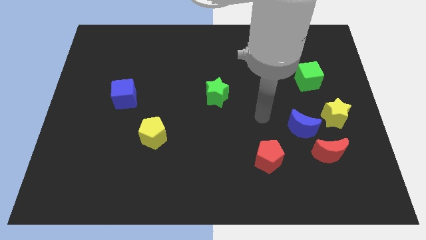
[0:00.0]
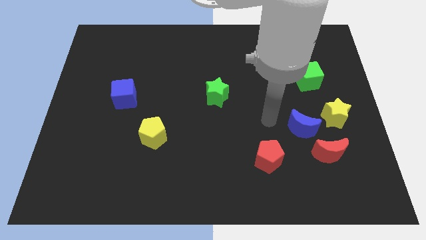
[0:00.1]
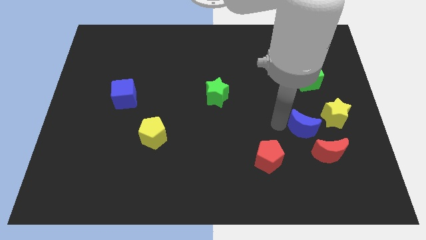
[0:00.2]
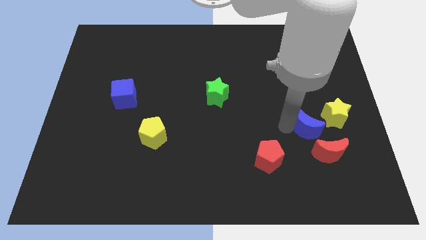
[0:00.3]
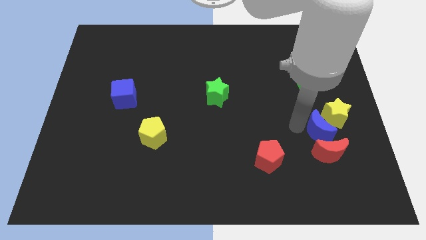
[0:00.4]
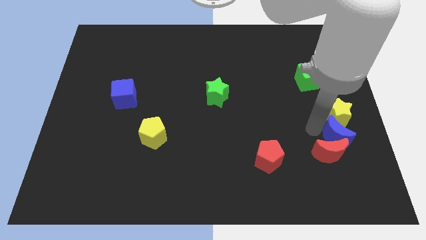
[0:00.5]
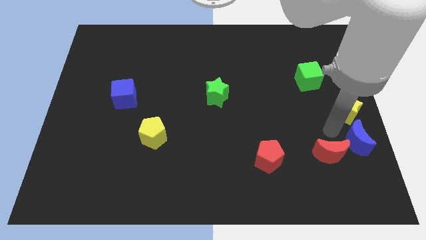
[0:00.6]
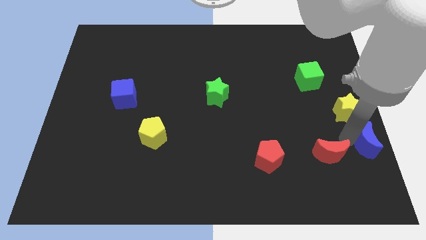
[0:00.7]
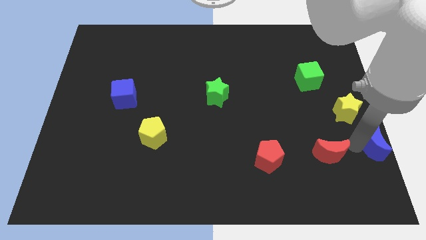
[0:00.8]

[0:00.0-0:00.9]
separate the red moon from the blue moon

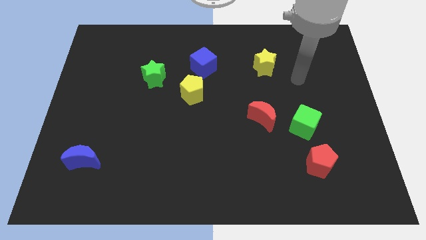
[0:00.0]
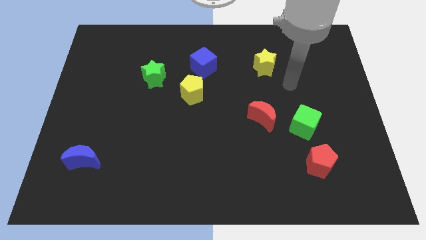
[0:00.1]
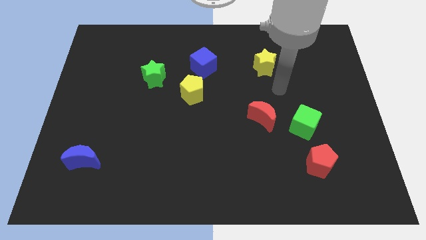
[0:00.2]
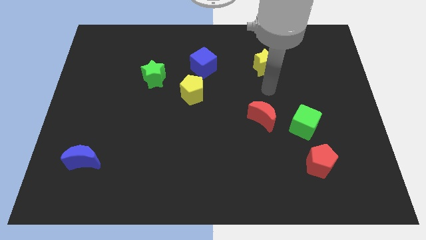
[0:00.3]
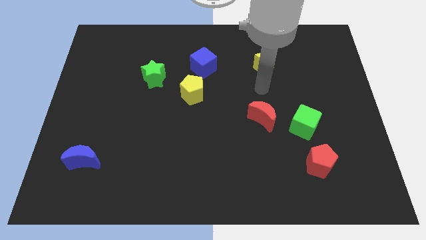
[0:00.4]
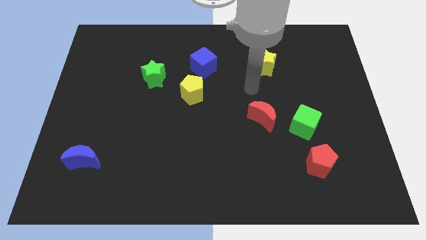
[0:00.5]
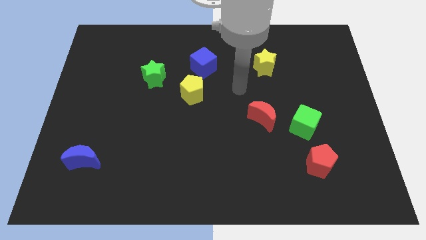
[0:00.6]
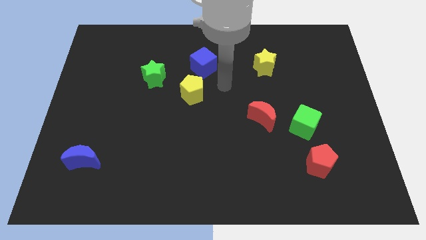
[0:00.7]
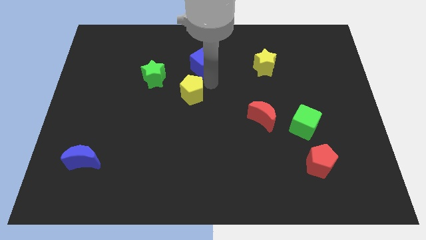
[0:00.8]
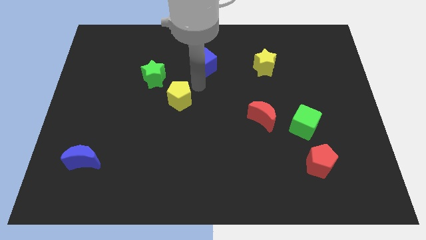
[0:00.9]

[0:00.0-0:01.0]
move the blue cube away from the yellow pentagon

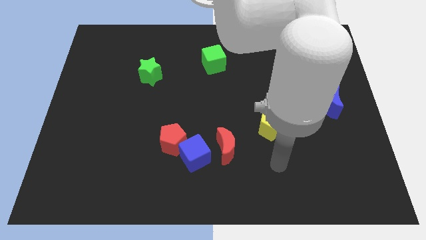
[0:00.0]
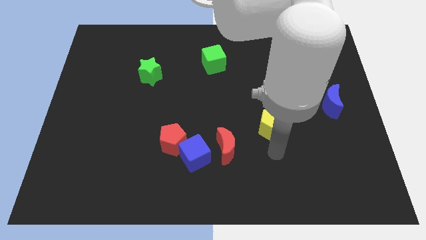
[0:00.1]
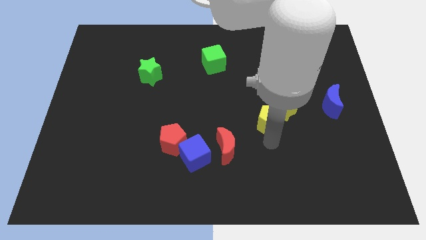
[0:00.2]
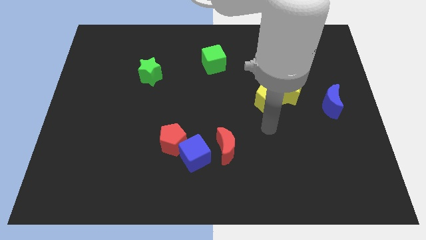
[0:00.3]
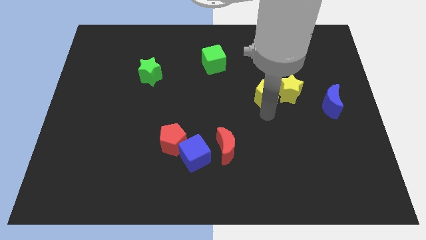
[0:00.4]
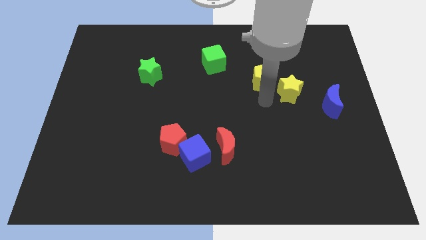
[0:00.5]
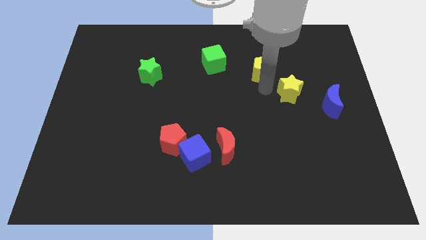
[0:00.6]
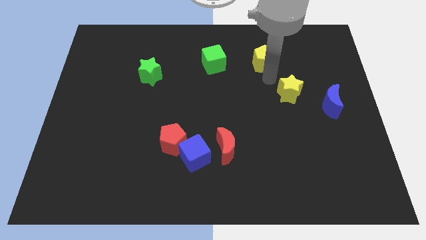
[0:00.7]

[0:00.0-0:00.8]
separate the yellow star from the yellow pentagon

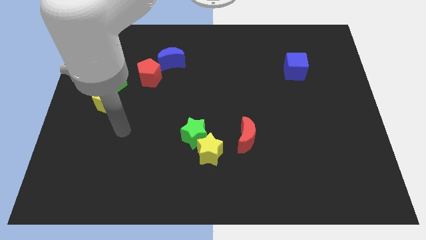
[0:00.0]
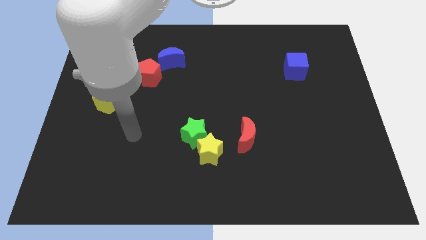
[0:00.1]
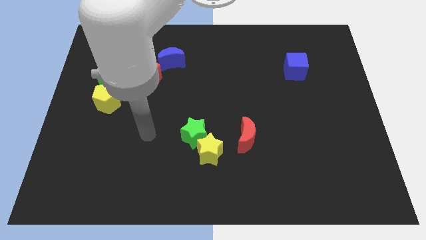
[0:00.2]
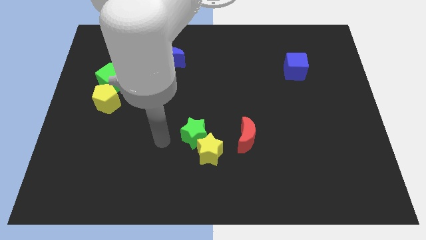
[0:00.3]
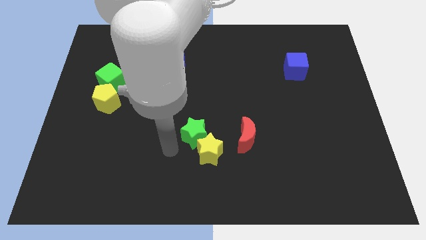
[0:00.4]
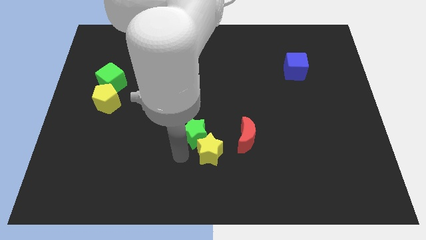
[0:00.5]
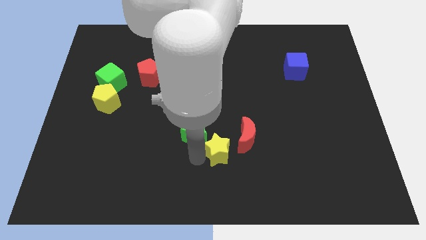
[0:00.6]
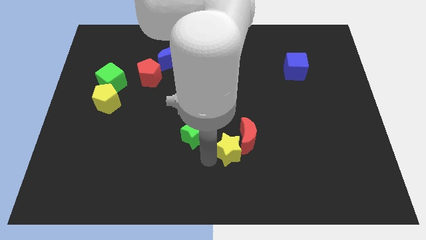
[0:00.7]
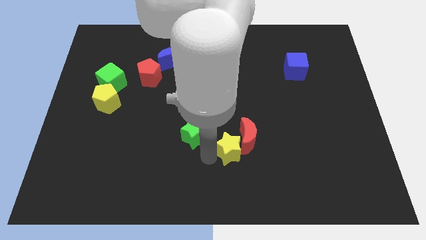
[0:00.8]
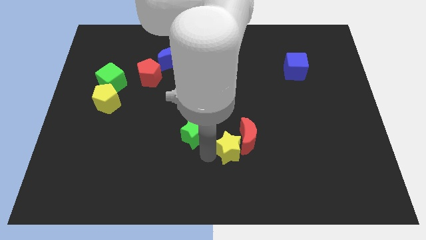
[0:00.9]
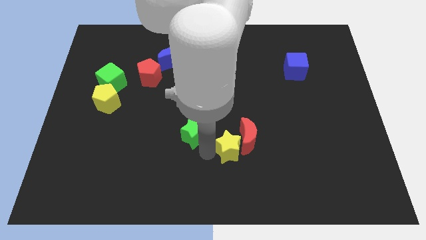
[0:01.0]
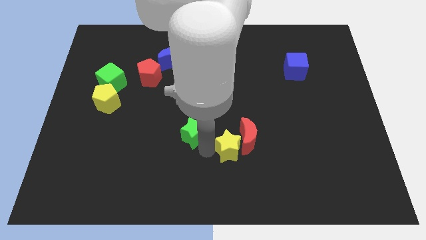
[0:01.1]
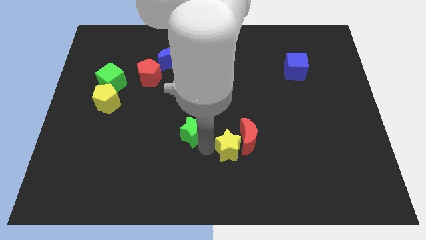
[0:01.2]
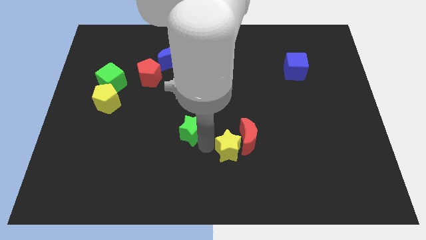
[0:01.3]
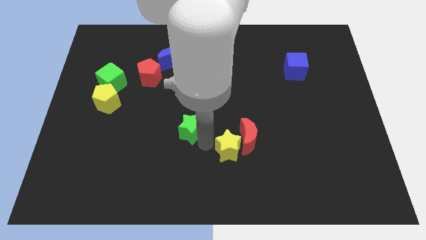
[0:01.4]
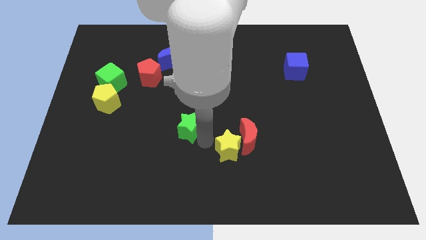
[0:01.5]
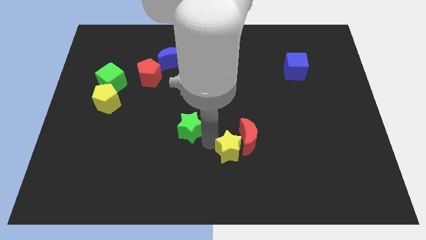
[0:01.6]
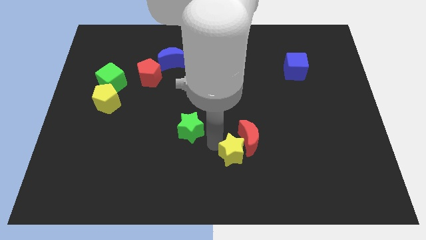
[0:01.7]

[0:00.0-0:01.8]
move the green star away from the yellow star

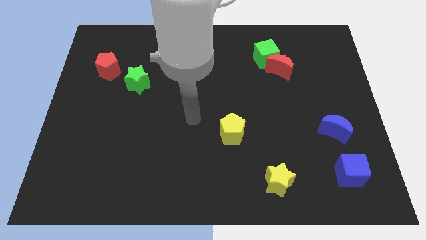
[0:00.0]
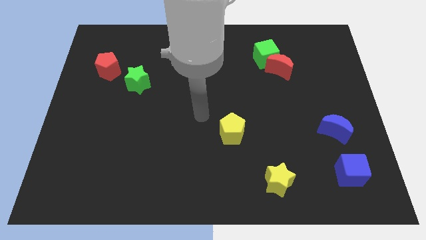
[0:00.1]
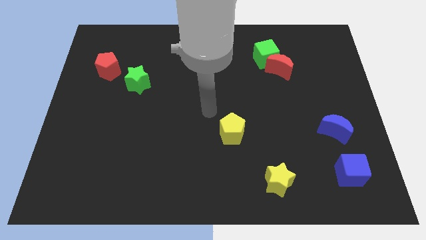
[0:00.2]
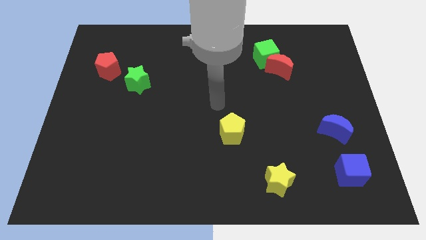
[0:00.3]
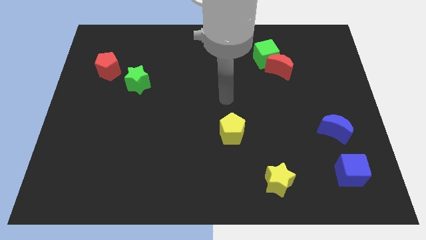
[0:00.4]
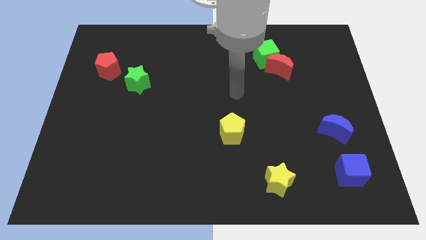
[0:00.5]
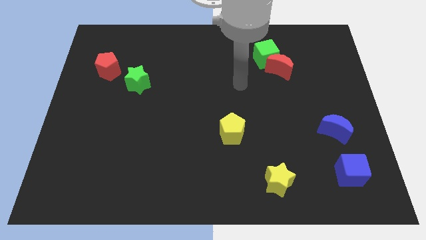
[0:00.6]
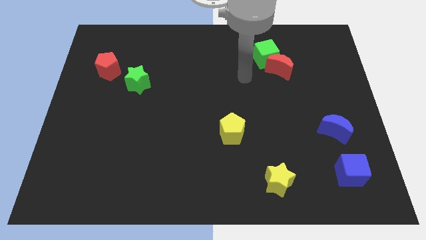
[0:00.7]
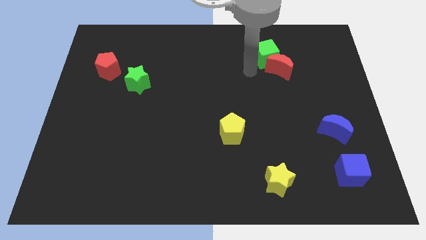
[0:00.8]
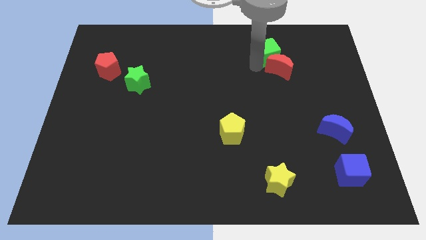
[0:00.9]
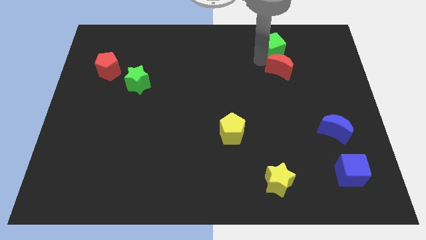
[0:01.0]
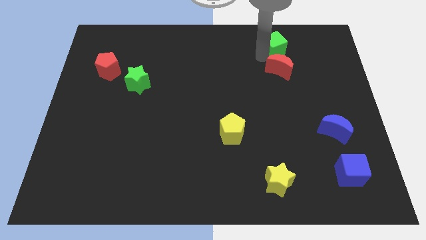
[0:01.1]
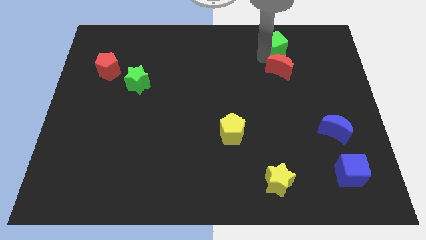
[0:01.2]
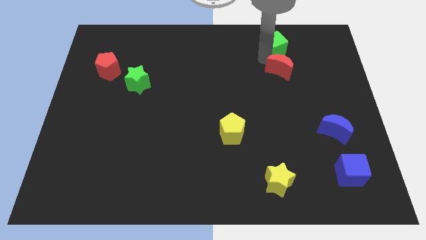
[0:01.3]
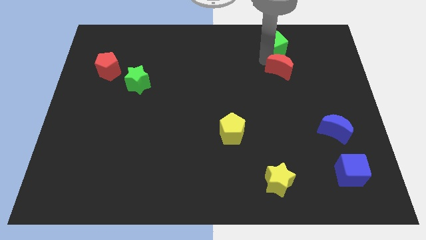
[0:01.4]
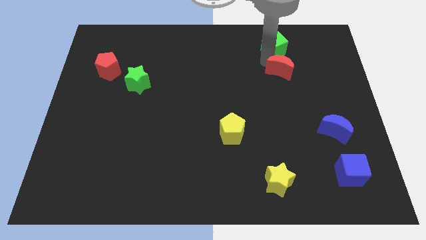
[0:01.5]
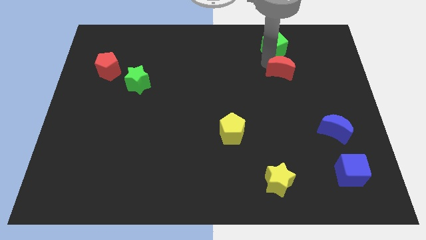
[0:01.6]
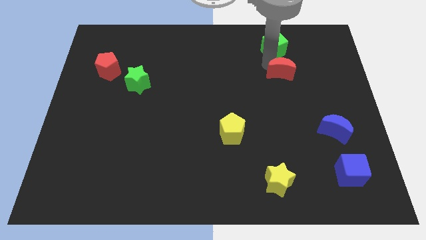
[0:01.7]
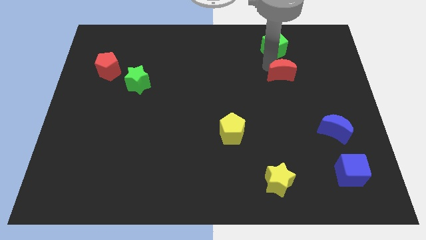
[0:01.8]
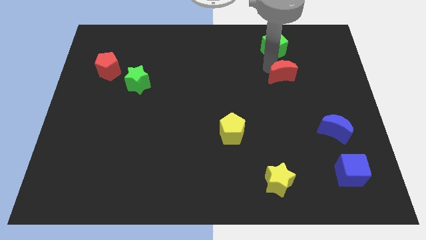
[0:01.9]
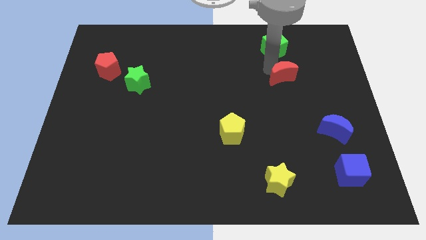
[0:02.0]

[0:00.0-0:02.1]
move the red moon away from the green cube

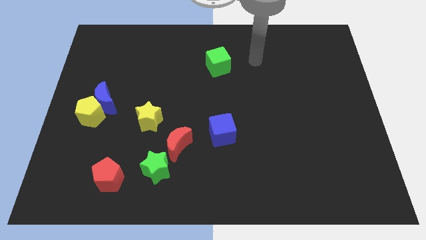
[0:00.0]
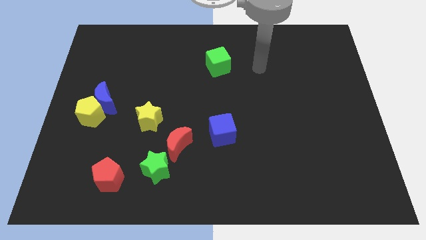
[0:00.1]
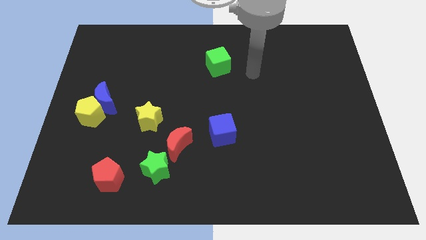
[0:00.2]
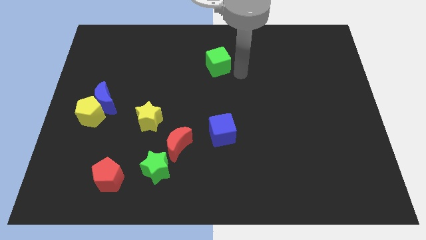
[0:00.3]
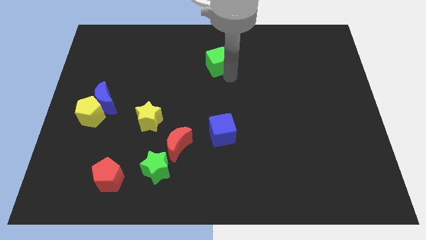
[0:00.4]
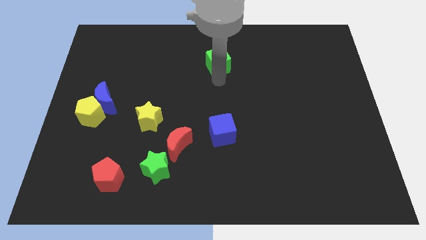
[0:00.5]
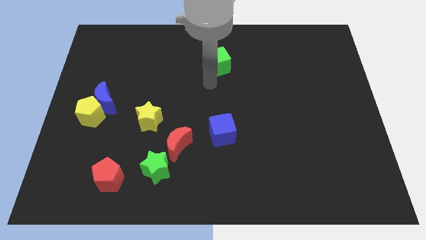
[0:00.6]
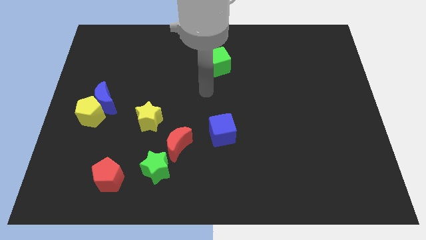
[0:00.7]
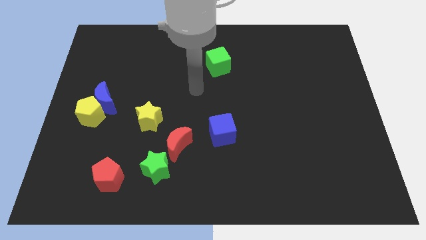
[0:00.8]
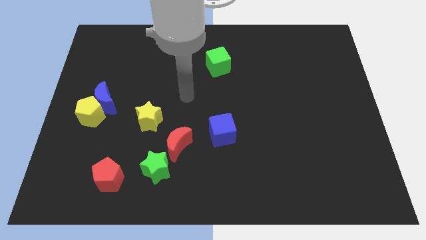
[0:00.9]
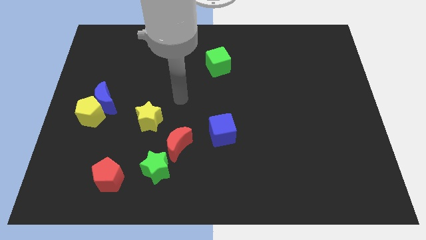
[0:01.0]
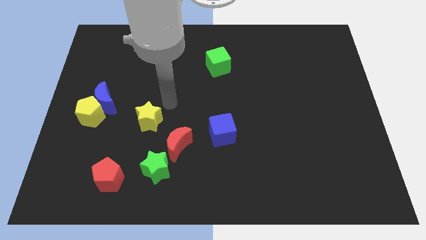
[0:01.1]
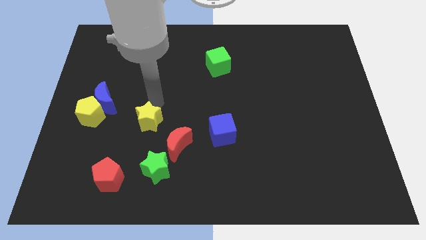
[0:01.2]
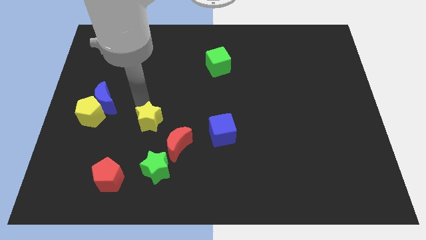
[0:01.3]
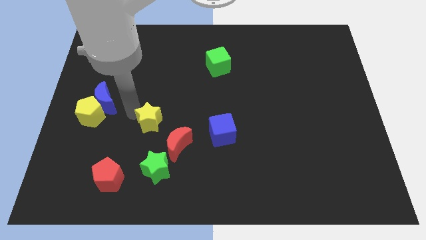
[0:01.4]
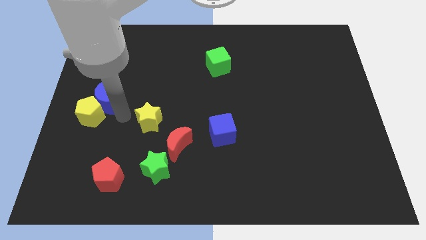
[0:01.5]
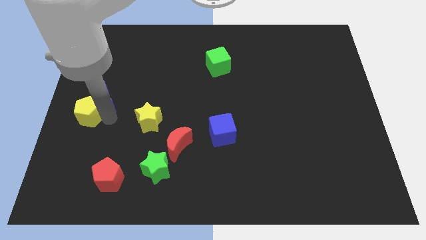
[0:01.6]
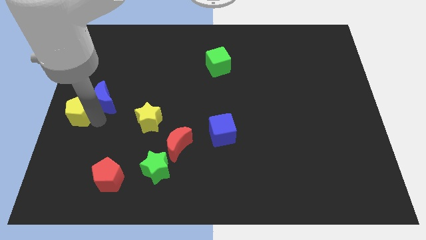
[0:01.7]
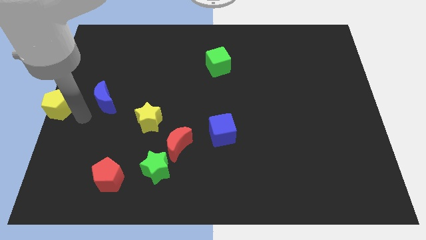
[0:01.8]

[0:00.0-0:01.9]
move the blue moon away from the yellow pentagon

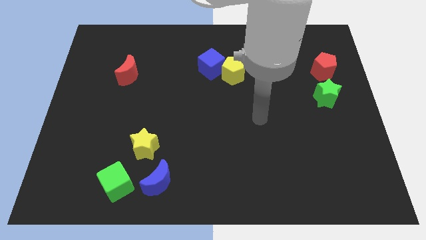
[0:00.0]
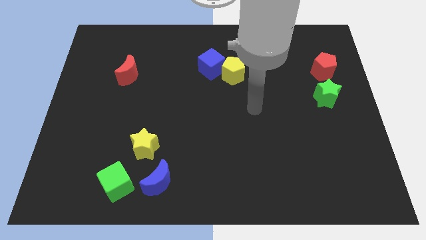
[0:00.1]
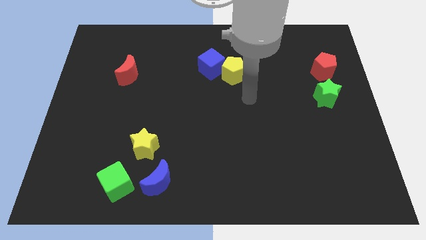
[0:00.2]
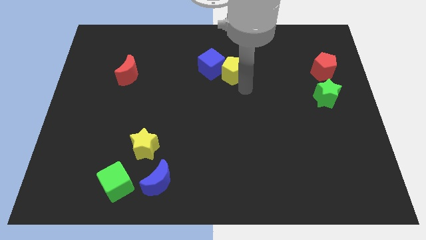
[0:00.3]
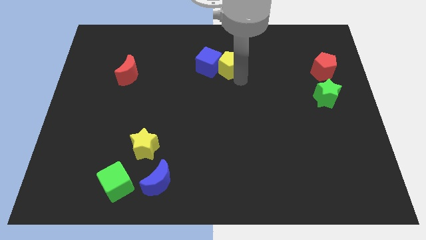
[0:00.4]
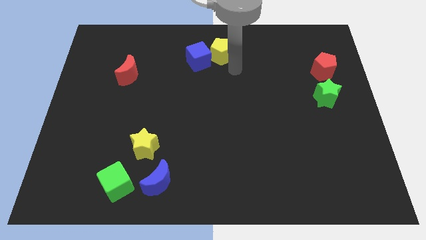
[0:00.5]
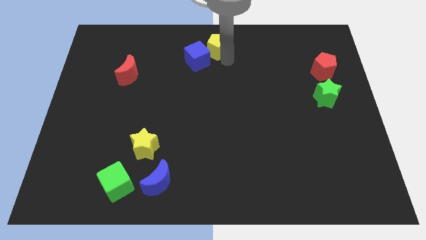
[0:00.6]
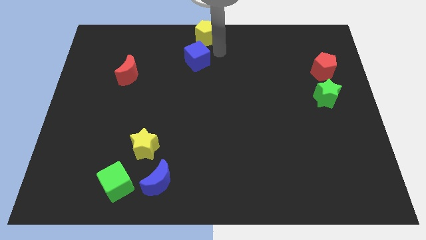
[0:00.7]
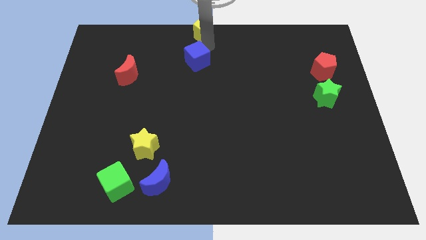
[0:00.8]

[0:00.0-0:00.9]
separate the blue cube from the yellow pentagon
